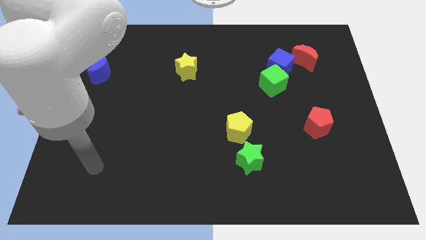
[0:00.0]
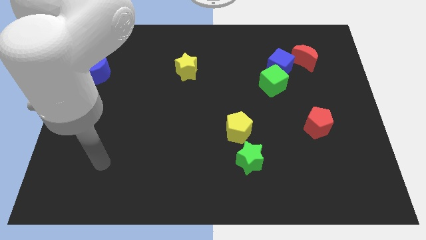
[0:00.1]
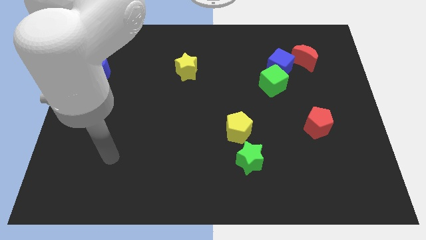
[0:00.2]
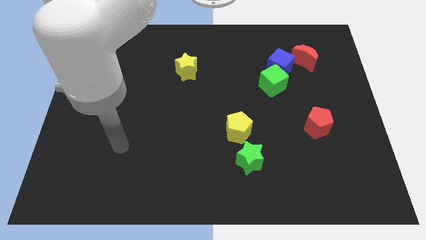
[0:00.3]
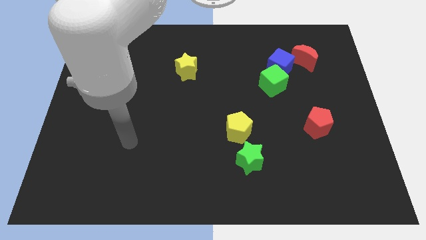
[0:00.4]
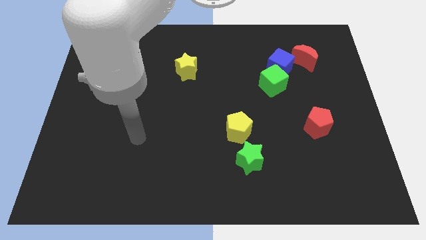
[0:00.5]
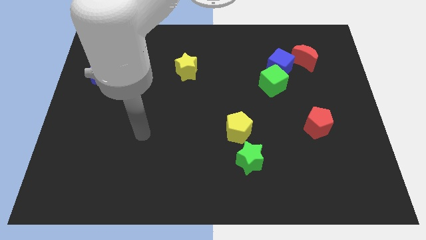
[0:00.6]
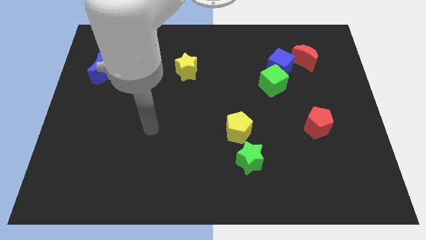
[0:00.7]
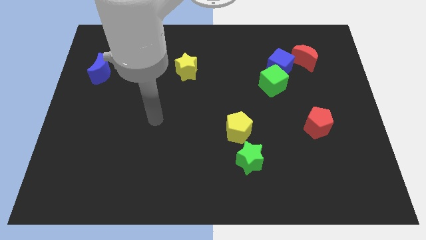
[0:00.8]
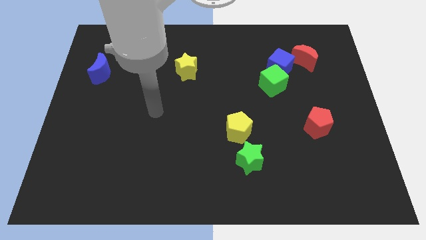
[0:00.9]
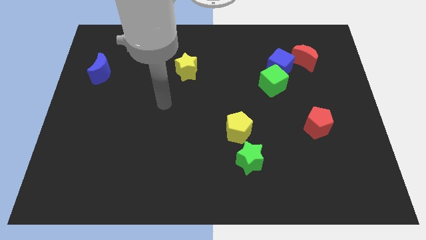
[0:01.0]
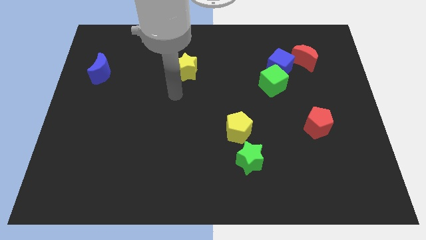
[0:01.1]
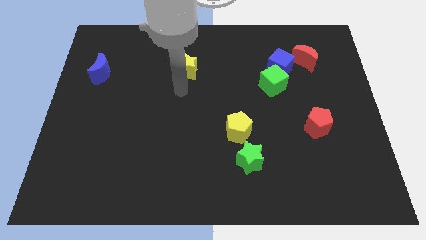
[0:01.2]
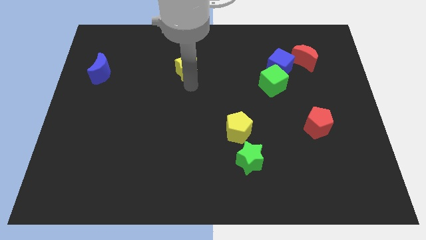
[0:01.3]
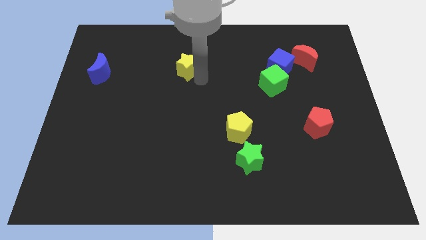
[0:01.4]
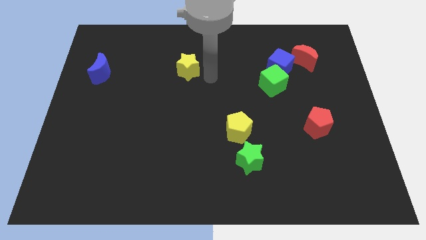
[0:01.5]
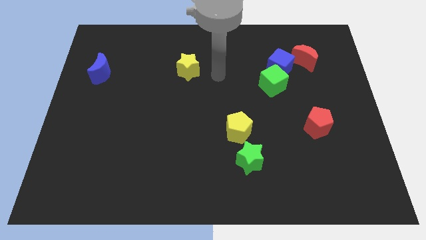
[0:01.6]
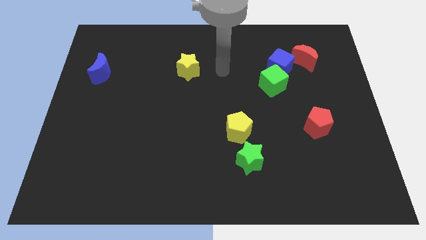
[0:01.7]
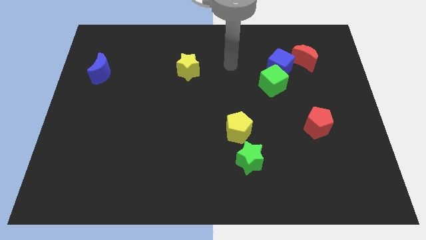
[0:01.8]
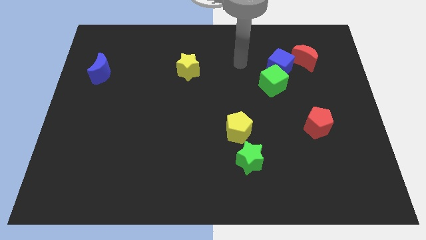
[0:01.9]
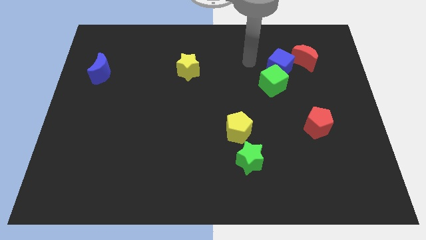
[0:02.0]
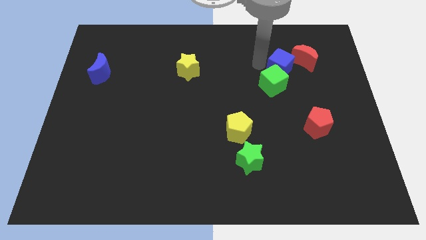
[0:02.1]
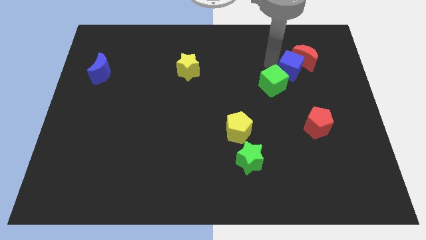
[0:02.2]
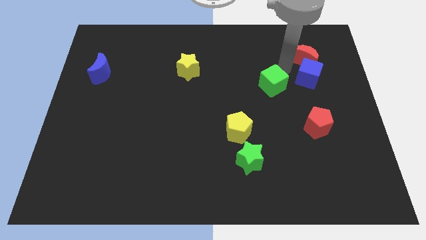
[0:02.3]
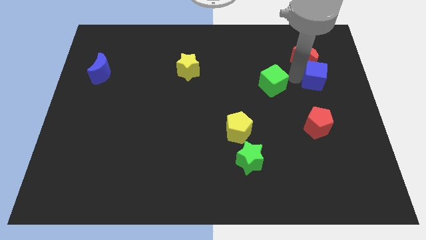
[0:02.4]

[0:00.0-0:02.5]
move the green cube away from the blue cube

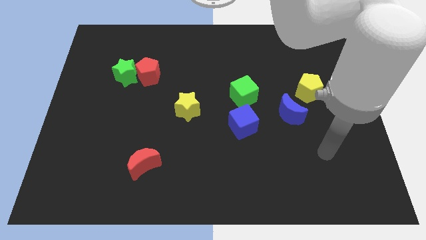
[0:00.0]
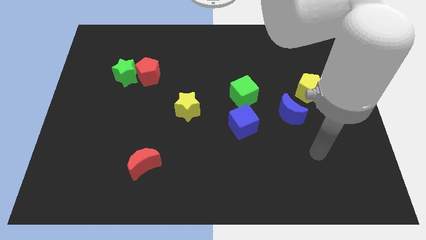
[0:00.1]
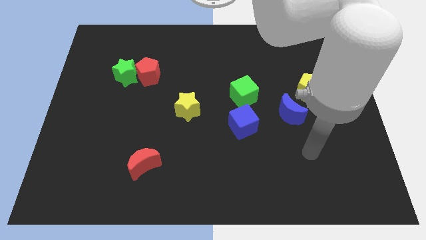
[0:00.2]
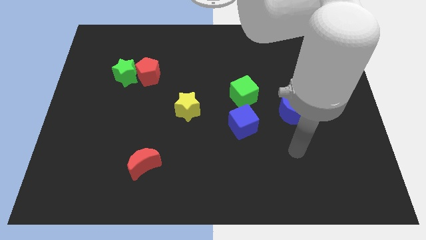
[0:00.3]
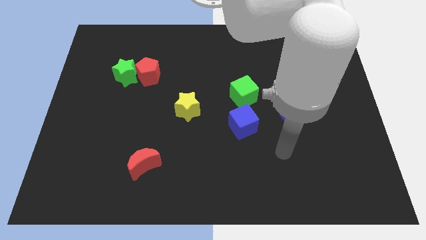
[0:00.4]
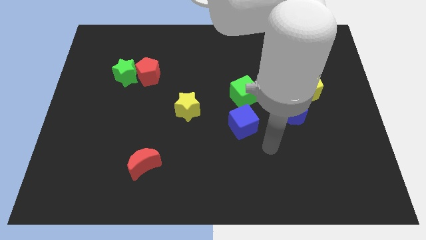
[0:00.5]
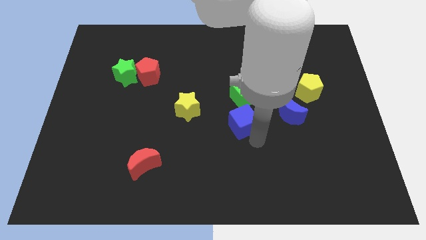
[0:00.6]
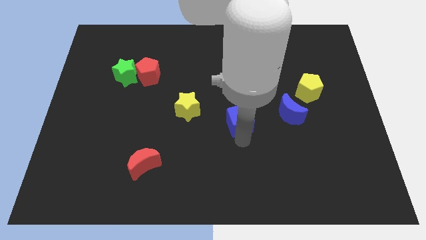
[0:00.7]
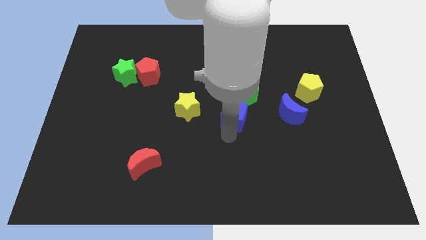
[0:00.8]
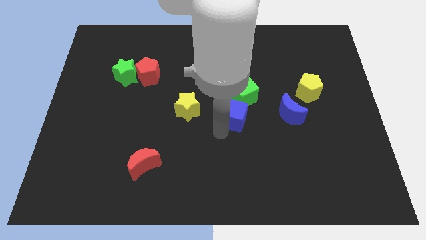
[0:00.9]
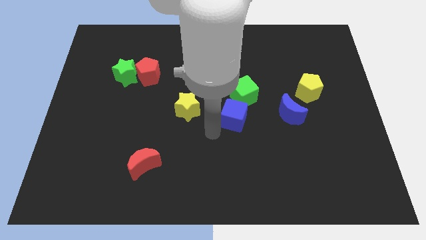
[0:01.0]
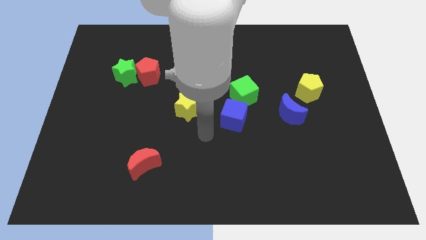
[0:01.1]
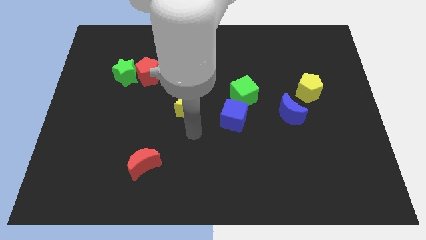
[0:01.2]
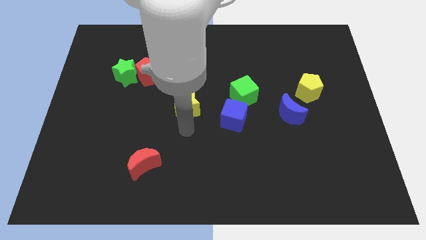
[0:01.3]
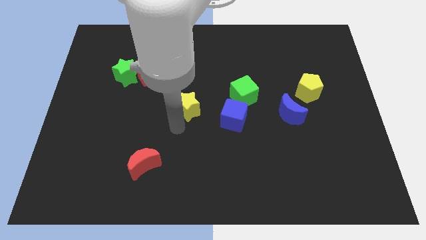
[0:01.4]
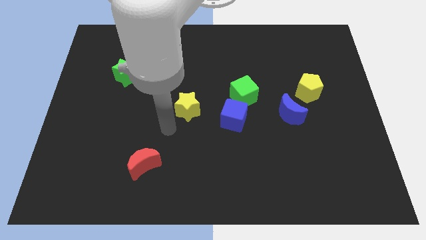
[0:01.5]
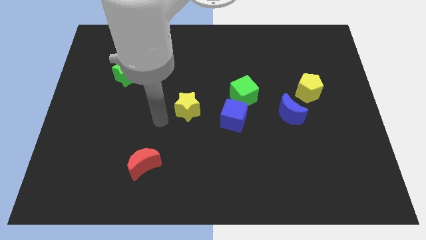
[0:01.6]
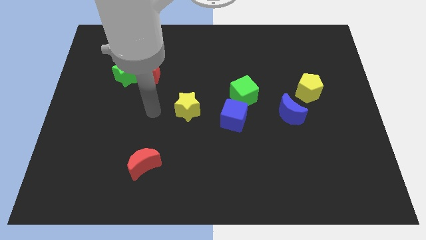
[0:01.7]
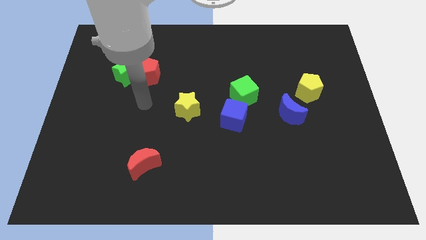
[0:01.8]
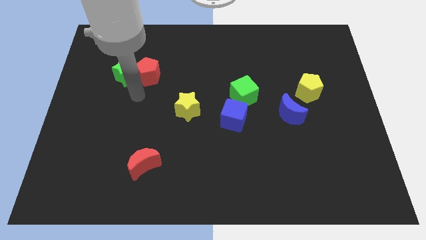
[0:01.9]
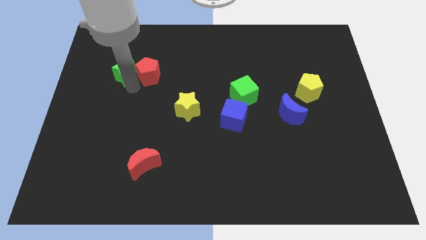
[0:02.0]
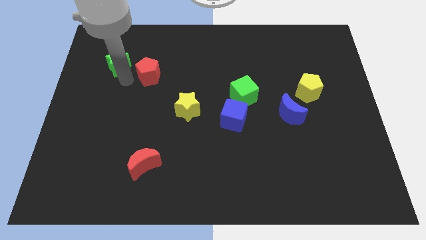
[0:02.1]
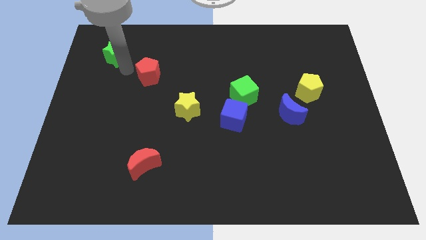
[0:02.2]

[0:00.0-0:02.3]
separate the red pentagon from the green star

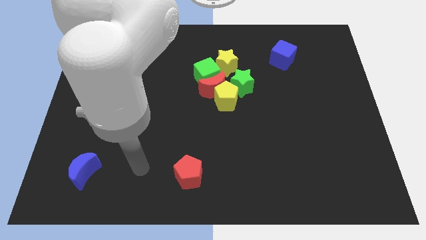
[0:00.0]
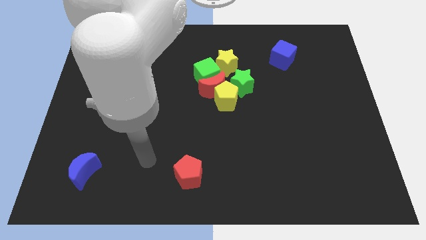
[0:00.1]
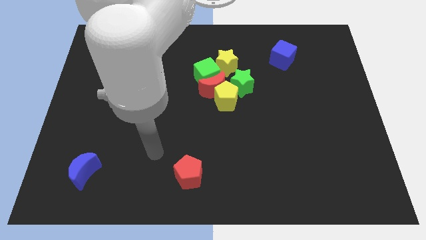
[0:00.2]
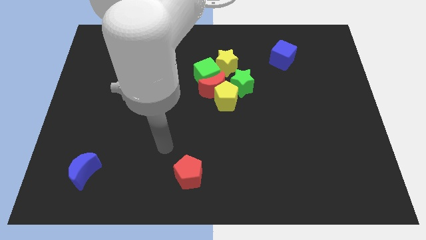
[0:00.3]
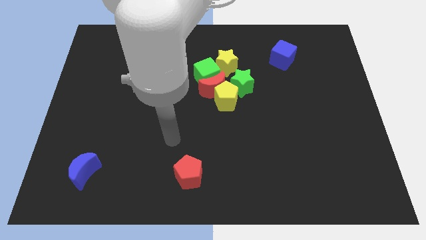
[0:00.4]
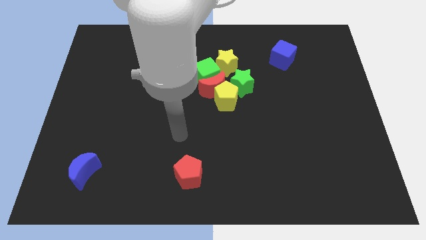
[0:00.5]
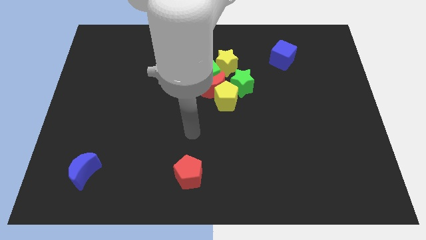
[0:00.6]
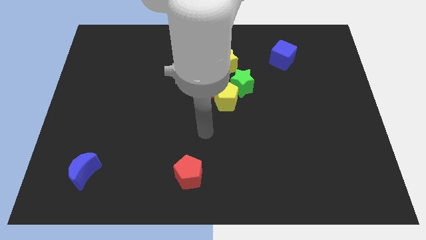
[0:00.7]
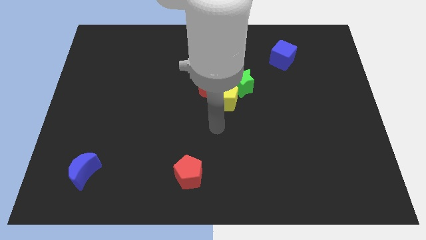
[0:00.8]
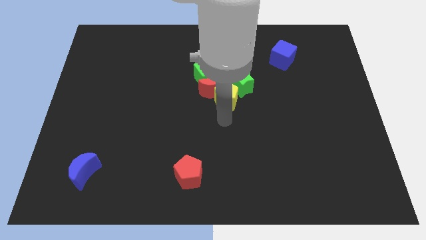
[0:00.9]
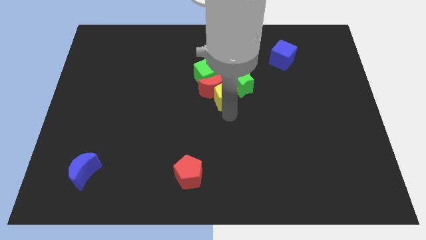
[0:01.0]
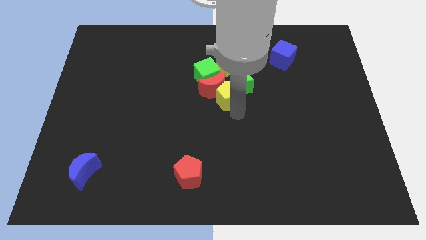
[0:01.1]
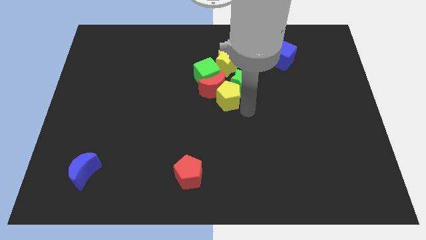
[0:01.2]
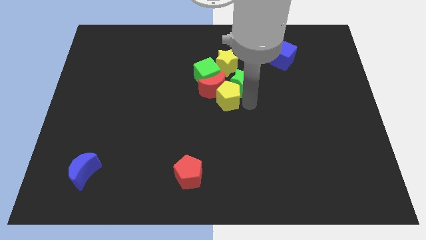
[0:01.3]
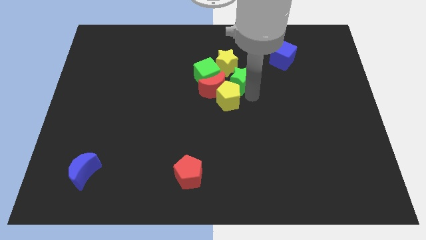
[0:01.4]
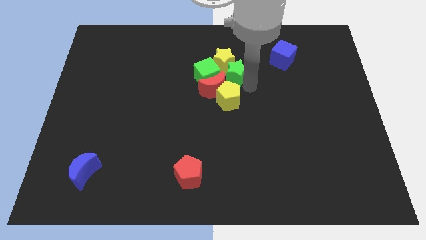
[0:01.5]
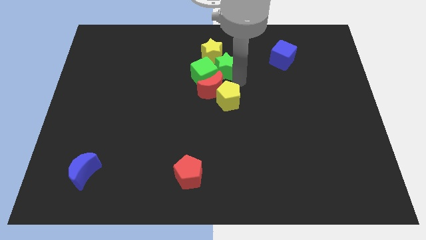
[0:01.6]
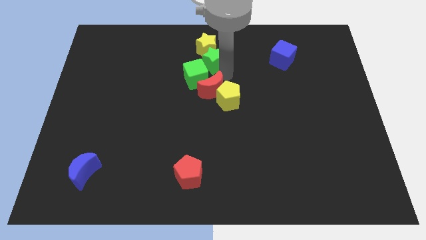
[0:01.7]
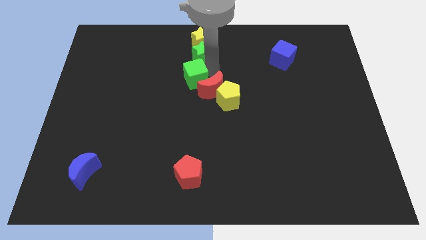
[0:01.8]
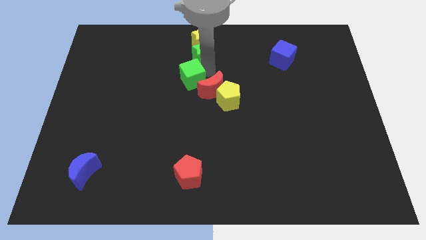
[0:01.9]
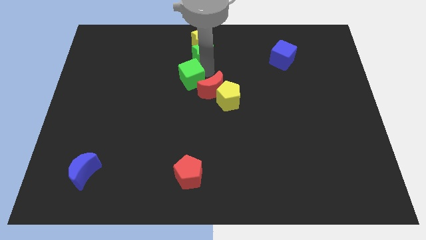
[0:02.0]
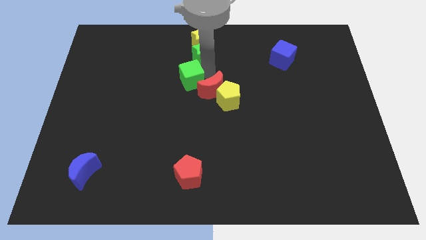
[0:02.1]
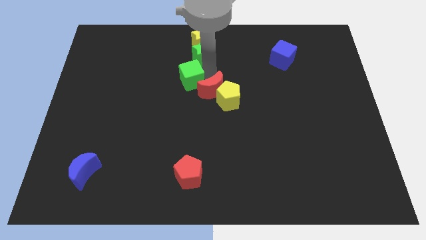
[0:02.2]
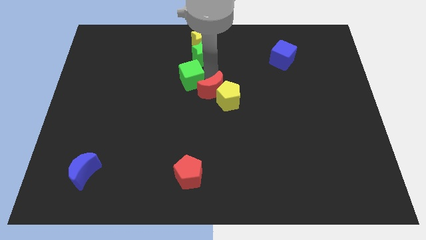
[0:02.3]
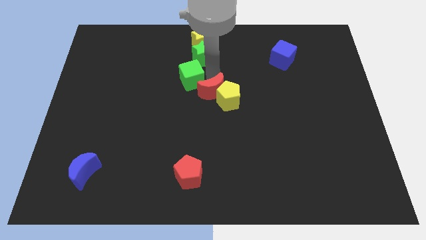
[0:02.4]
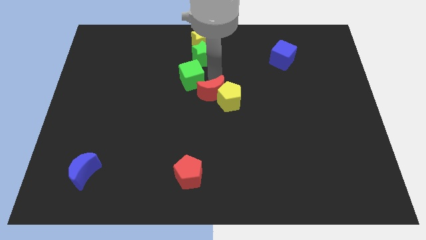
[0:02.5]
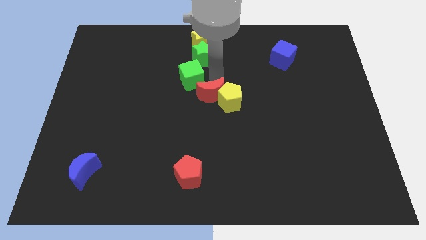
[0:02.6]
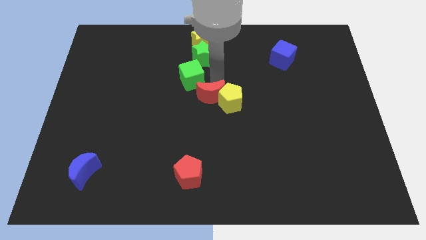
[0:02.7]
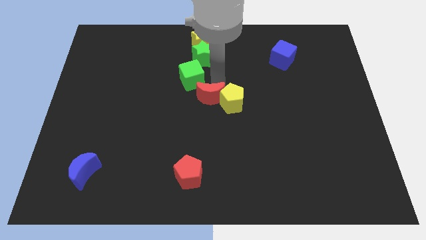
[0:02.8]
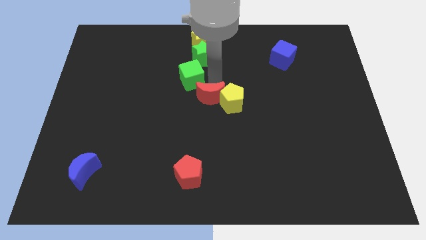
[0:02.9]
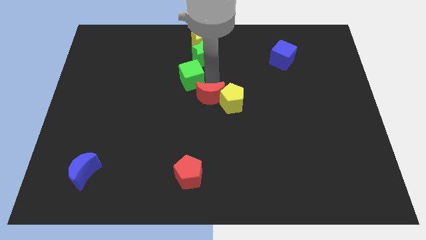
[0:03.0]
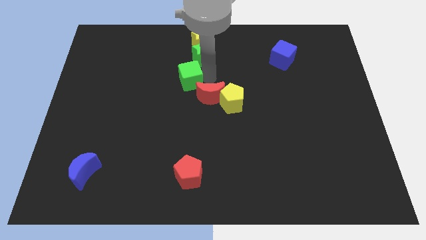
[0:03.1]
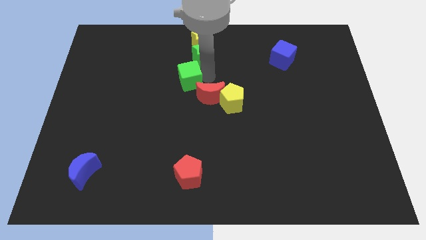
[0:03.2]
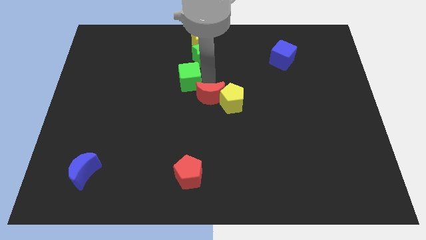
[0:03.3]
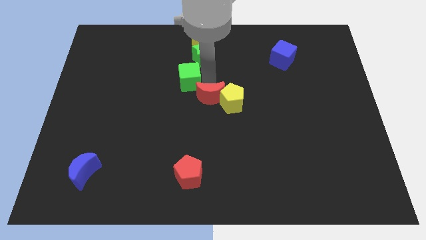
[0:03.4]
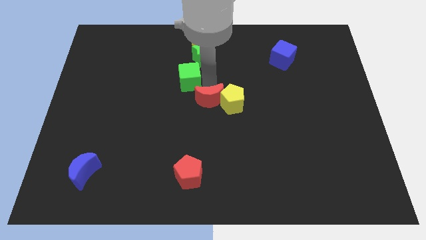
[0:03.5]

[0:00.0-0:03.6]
move the red moon away from the clump

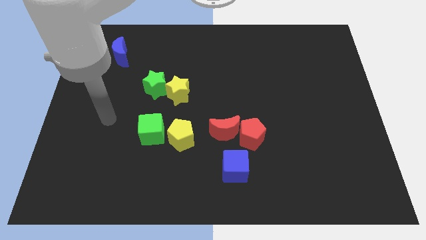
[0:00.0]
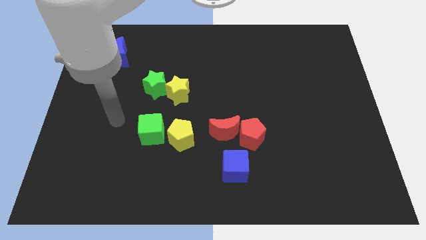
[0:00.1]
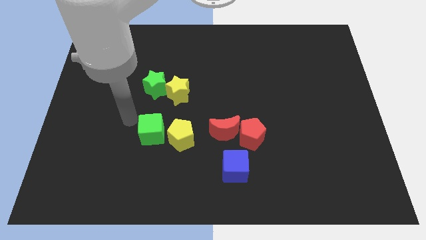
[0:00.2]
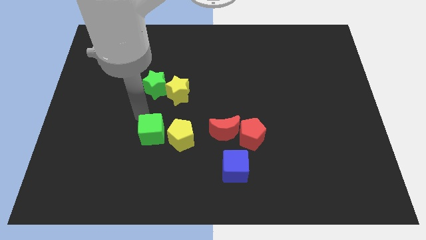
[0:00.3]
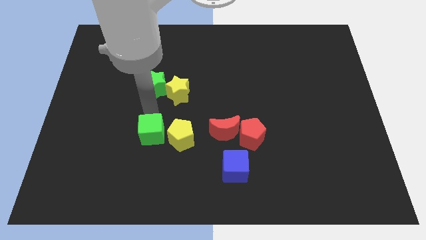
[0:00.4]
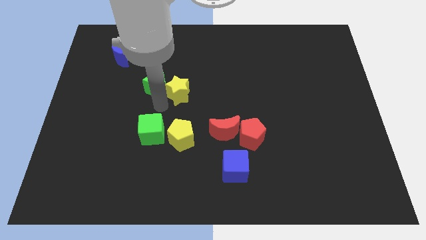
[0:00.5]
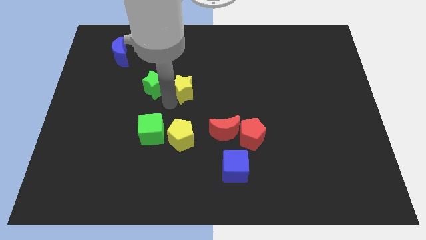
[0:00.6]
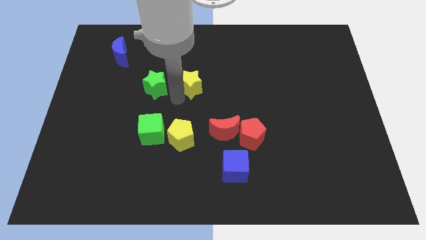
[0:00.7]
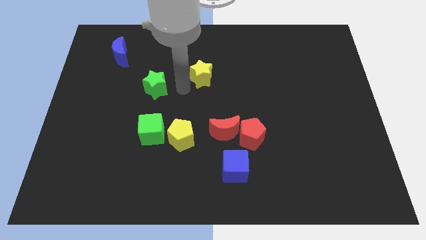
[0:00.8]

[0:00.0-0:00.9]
move the green star away from the yellow star
